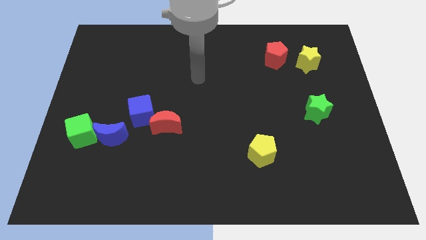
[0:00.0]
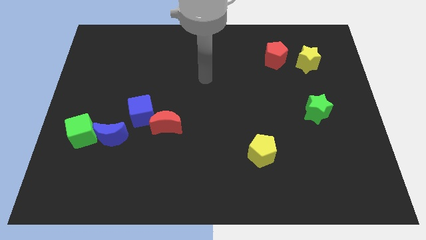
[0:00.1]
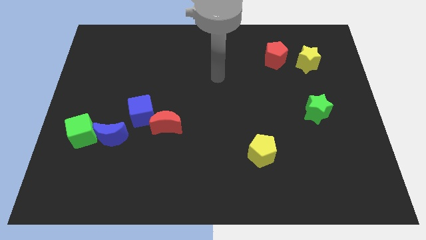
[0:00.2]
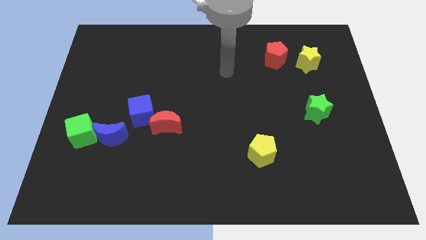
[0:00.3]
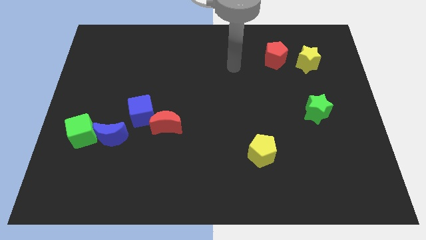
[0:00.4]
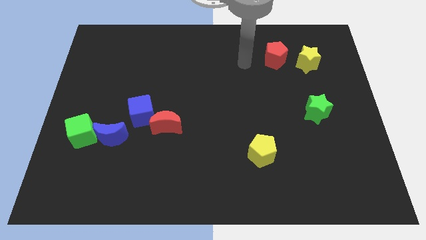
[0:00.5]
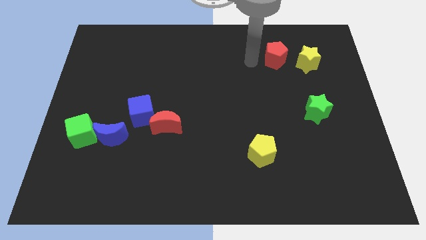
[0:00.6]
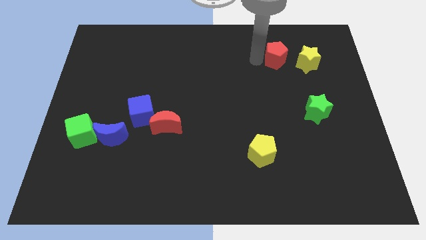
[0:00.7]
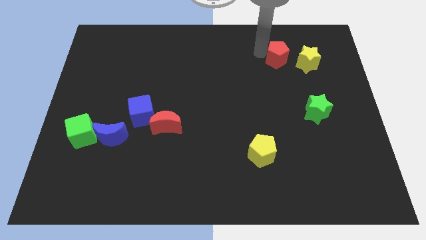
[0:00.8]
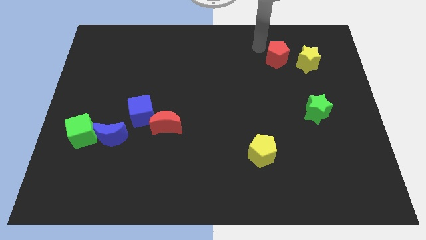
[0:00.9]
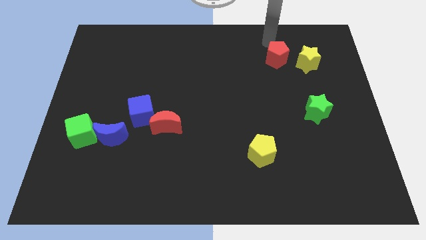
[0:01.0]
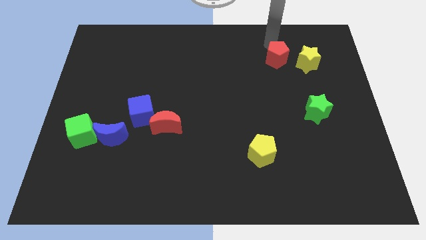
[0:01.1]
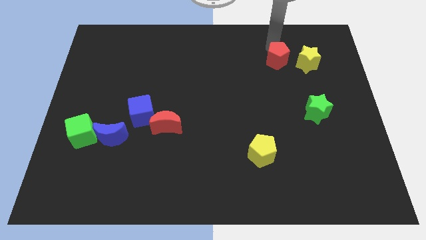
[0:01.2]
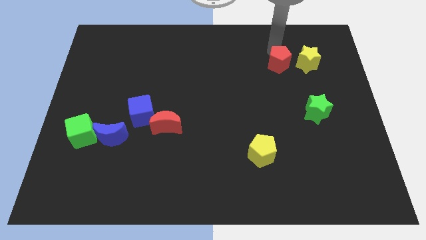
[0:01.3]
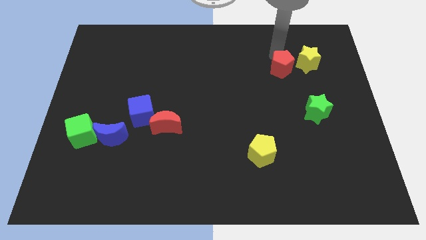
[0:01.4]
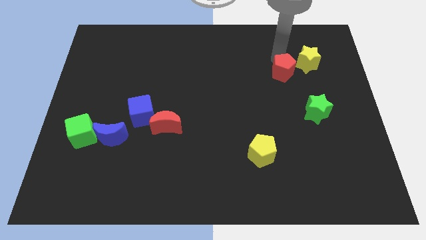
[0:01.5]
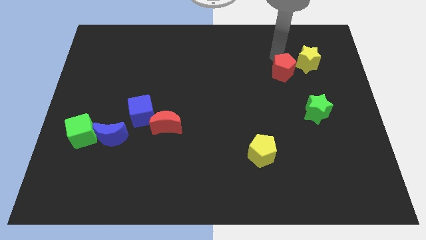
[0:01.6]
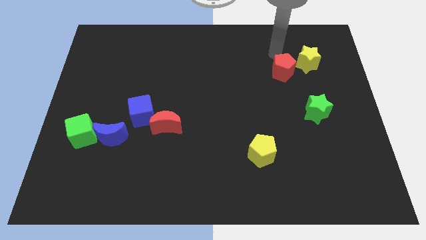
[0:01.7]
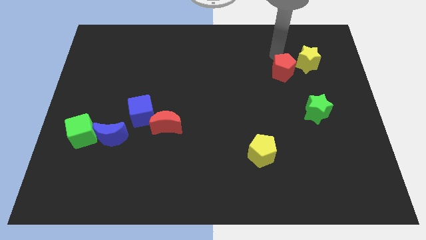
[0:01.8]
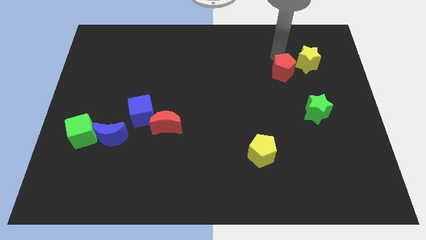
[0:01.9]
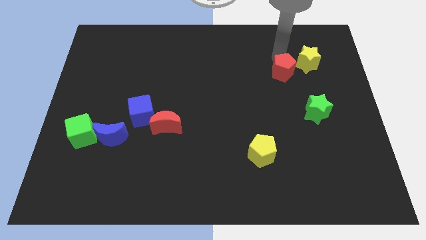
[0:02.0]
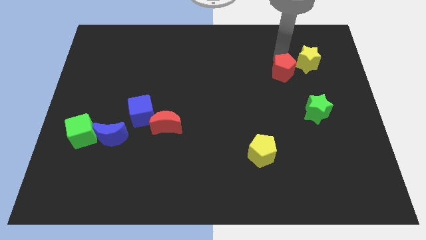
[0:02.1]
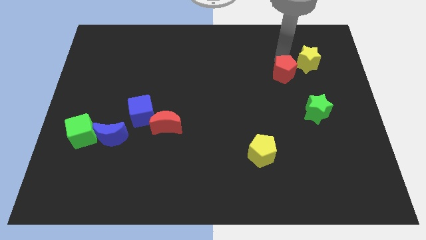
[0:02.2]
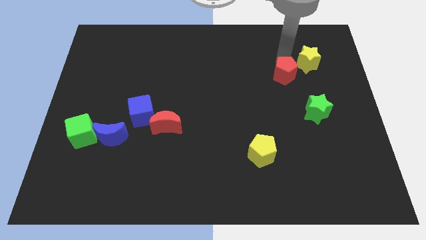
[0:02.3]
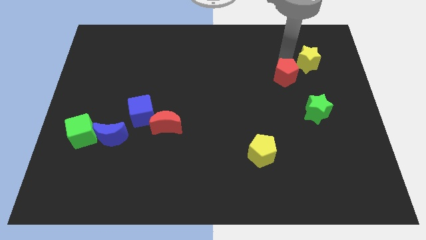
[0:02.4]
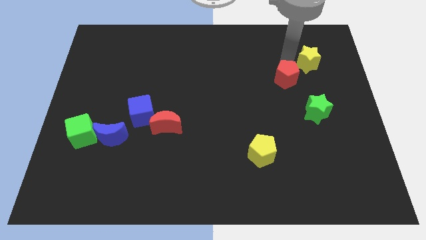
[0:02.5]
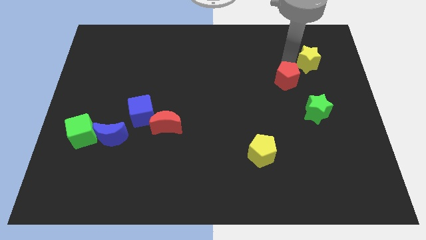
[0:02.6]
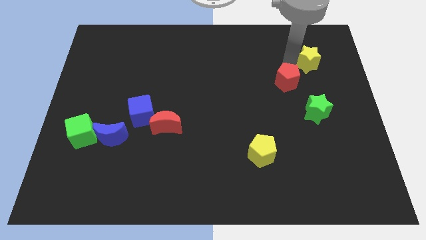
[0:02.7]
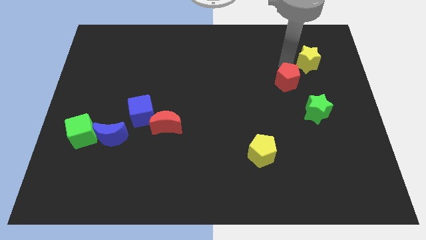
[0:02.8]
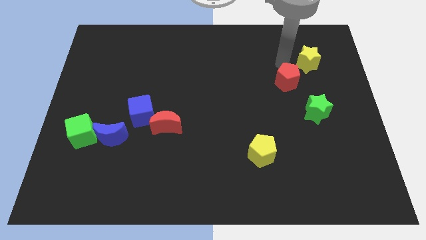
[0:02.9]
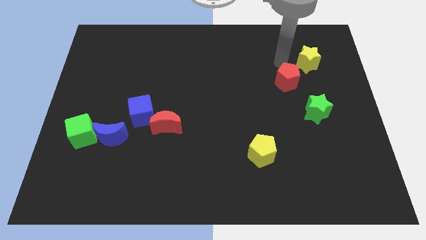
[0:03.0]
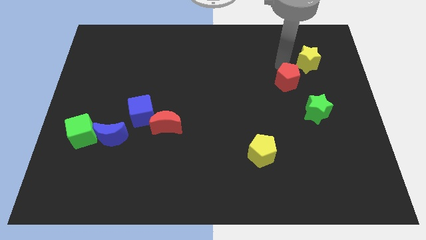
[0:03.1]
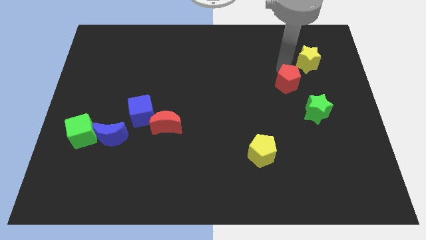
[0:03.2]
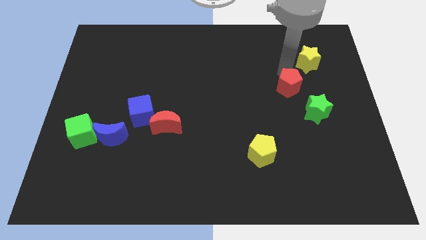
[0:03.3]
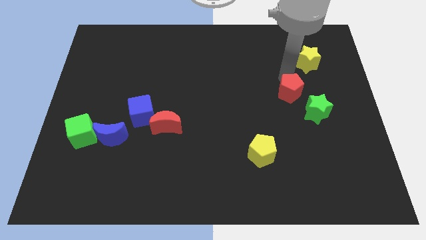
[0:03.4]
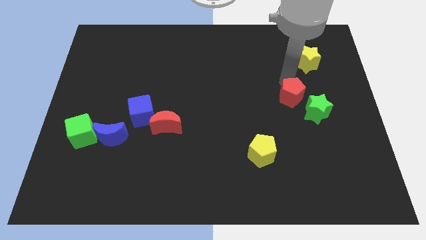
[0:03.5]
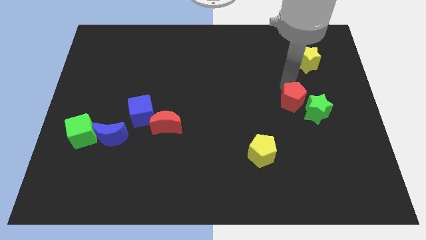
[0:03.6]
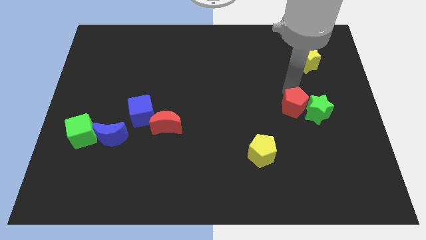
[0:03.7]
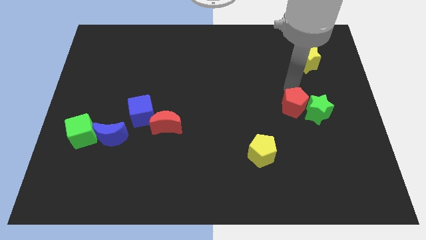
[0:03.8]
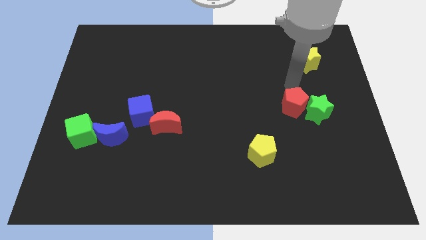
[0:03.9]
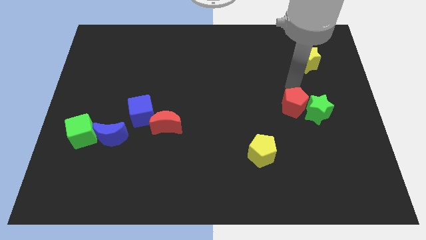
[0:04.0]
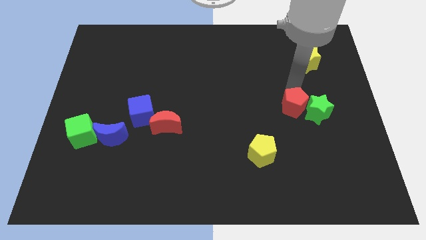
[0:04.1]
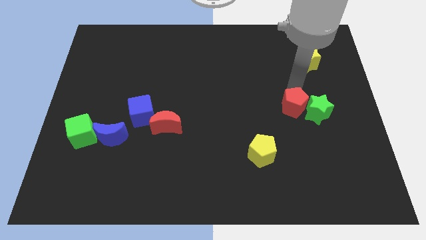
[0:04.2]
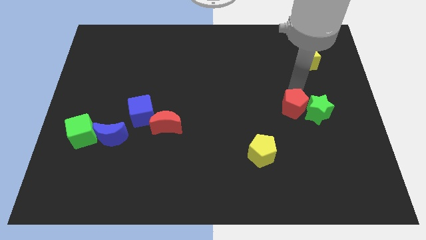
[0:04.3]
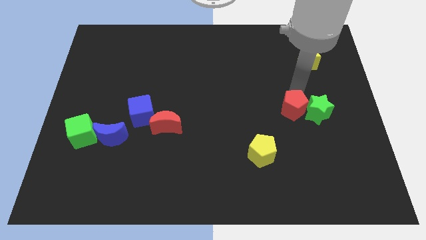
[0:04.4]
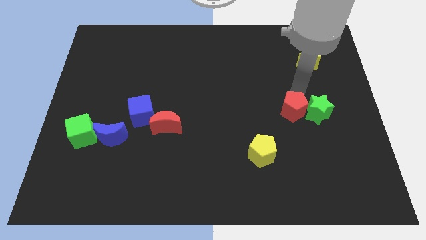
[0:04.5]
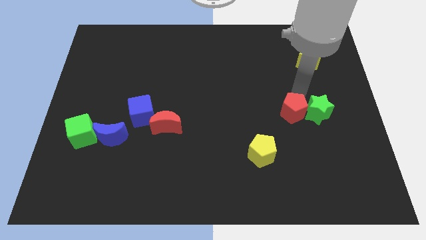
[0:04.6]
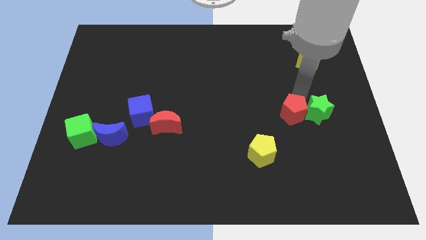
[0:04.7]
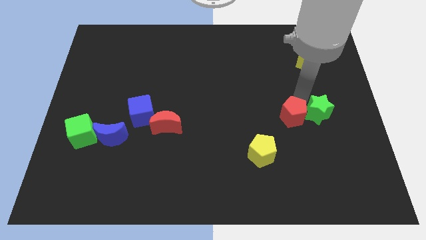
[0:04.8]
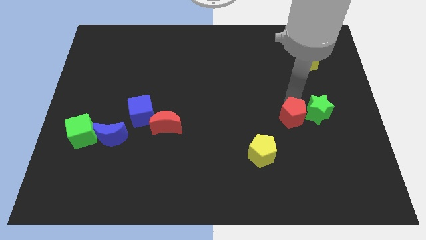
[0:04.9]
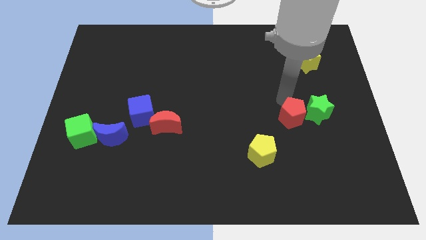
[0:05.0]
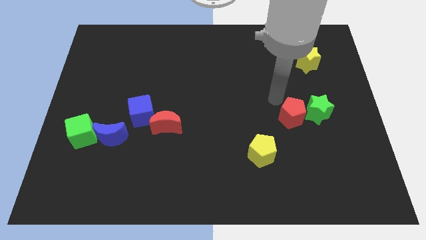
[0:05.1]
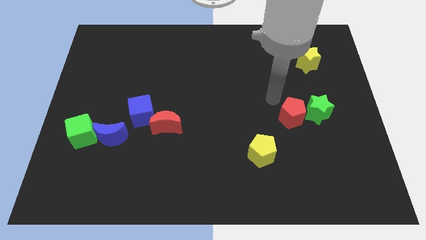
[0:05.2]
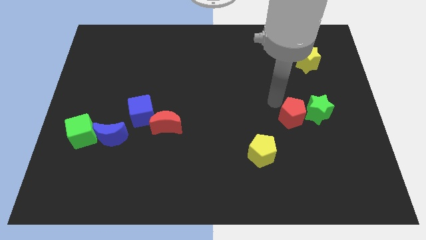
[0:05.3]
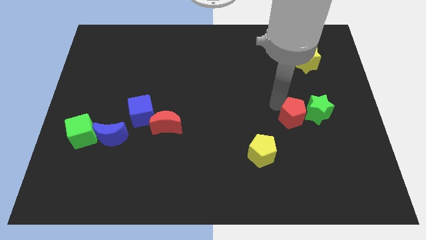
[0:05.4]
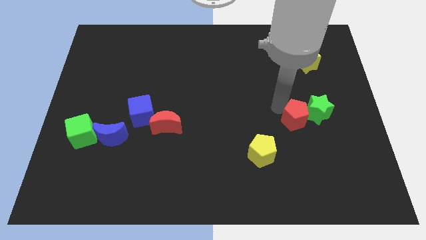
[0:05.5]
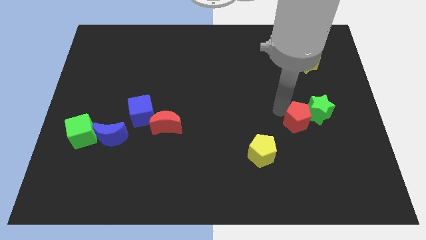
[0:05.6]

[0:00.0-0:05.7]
push the red pentagon downwards

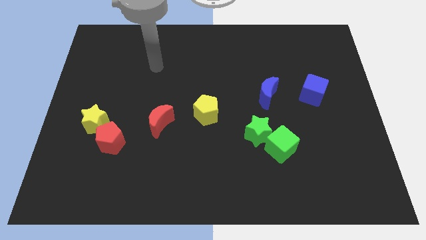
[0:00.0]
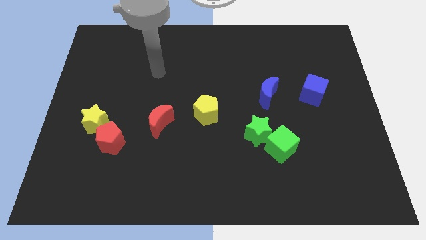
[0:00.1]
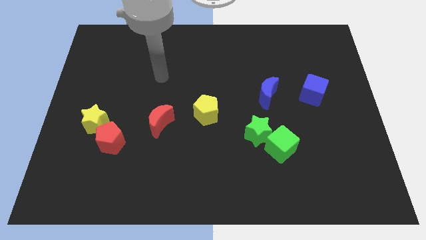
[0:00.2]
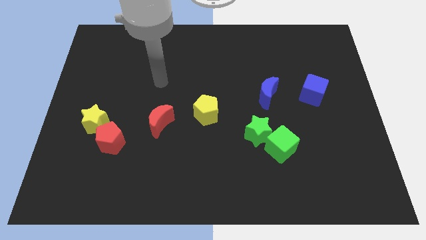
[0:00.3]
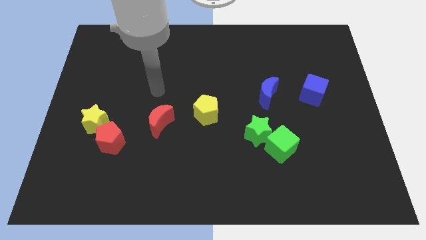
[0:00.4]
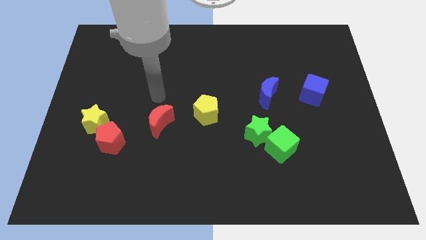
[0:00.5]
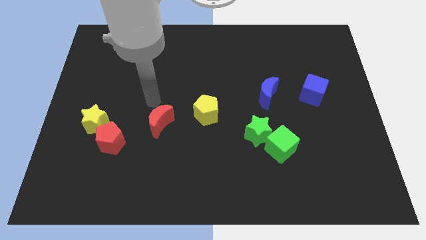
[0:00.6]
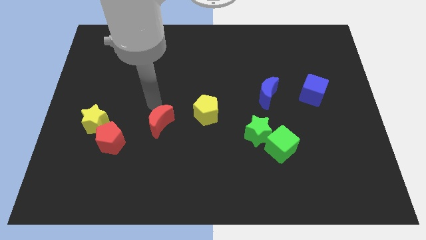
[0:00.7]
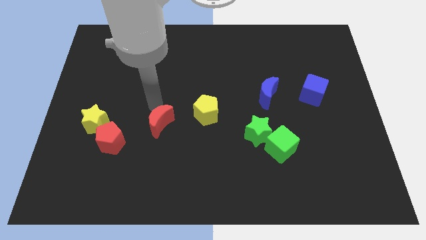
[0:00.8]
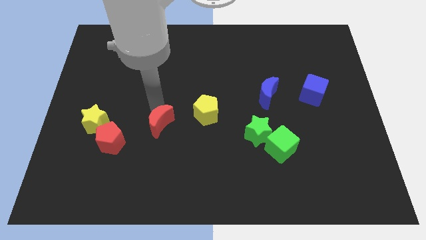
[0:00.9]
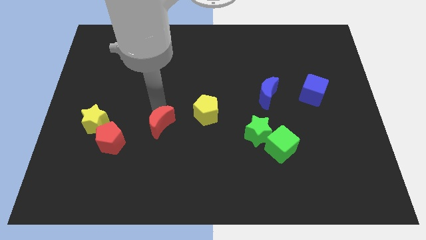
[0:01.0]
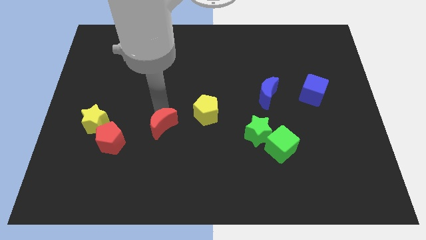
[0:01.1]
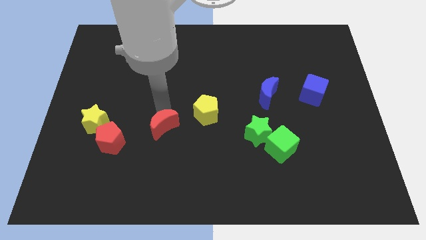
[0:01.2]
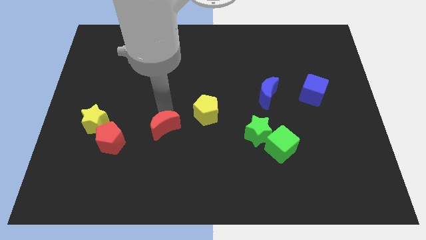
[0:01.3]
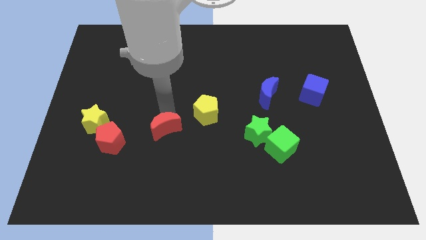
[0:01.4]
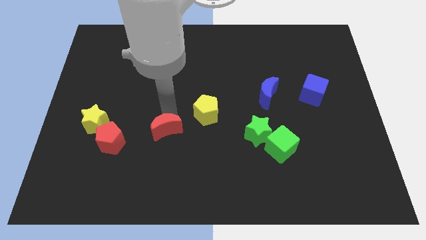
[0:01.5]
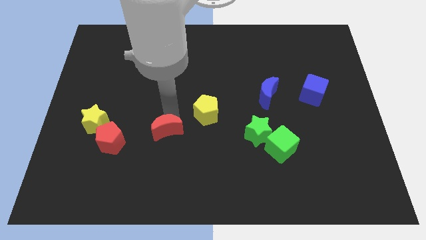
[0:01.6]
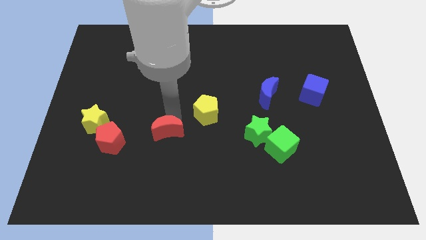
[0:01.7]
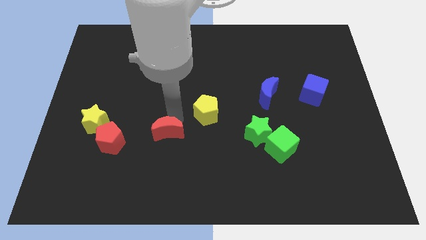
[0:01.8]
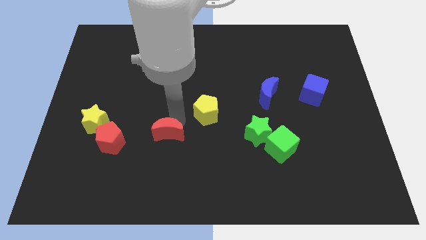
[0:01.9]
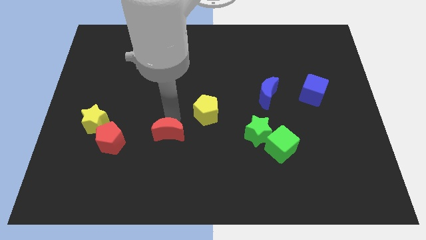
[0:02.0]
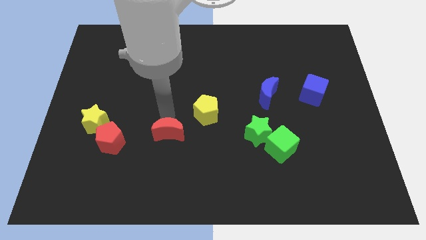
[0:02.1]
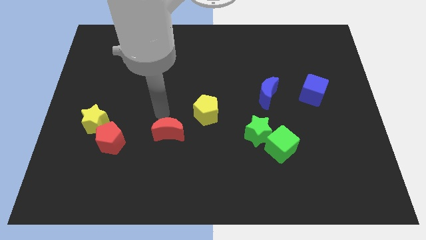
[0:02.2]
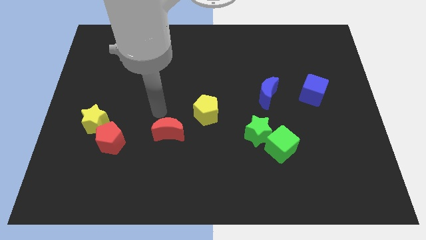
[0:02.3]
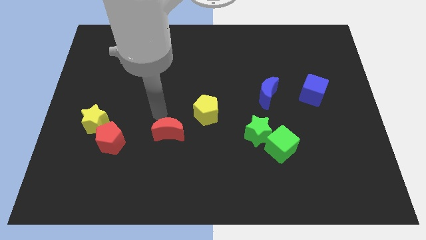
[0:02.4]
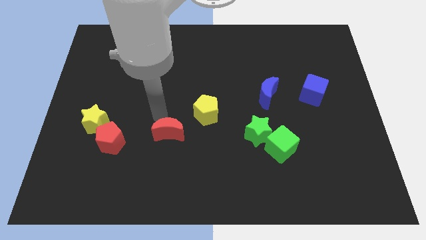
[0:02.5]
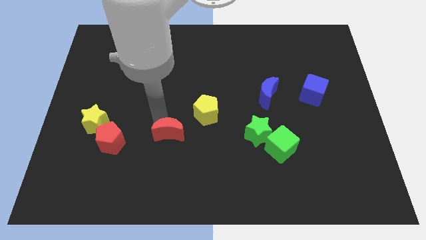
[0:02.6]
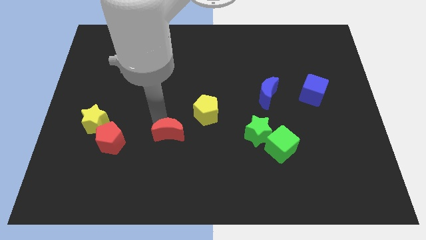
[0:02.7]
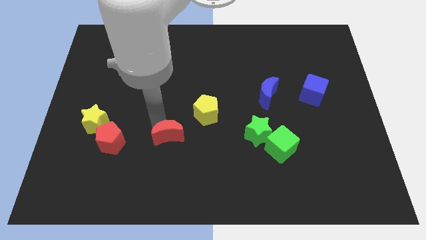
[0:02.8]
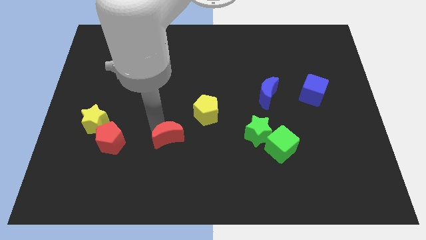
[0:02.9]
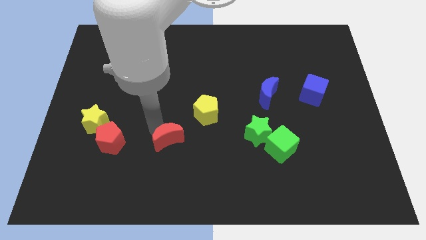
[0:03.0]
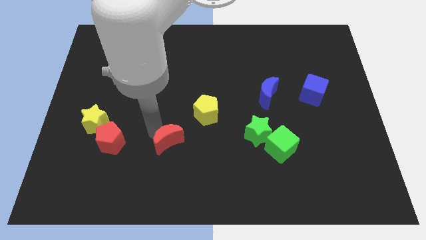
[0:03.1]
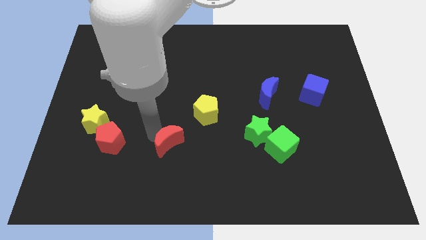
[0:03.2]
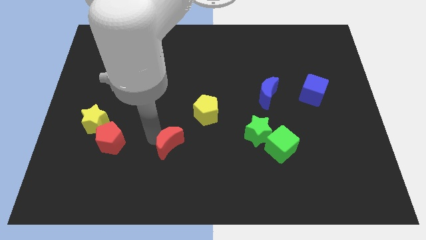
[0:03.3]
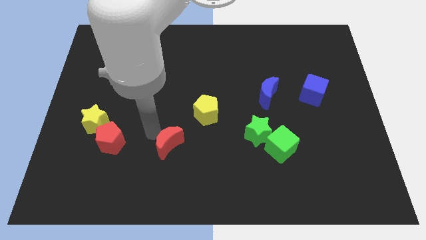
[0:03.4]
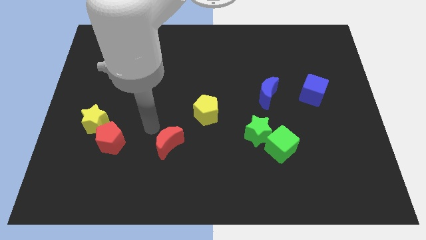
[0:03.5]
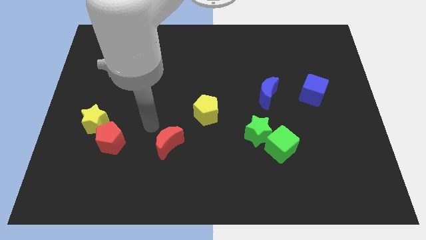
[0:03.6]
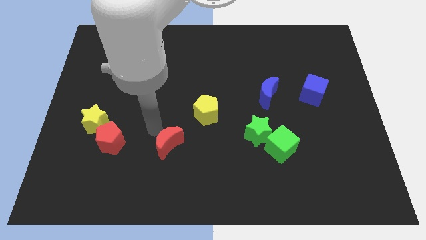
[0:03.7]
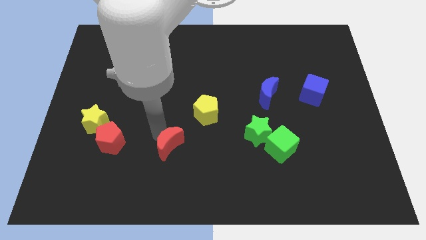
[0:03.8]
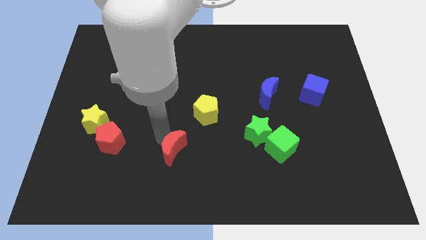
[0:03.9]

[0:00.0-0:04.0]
move the red moon down and right a little
